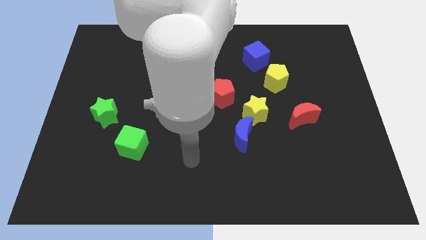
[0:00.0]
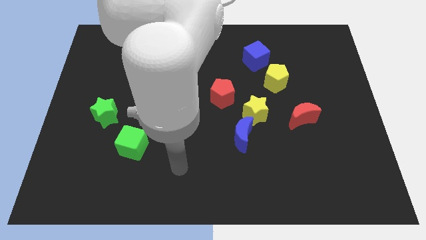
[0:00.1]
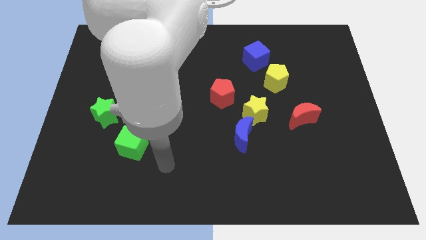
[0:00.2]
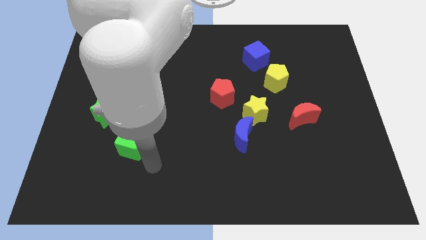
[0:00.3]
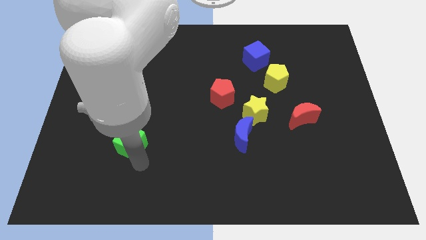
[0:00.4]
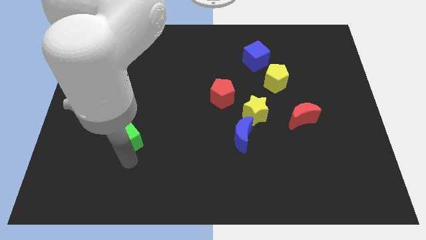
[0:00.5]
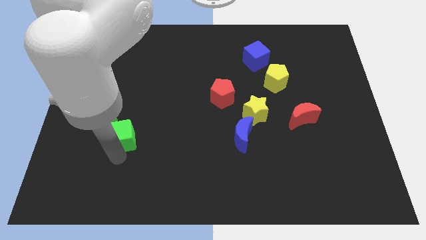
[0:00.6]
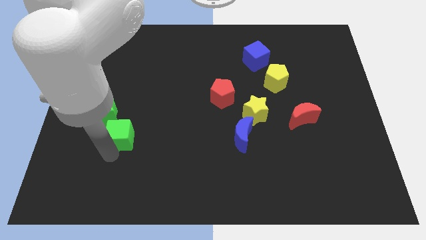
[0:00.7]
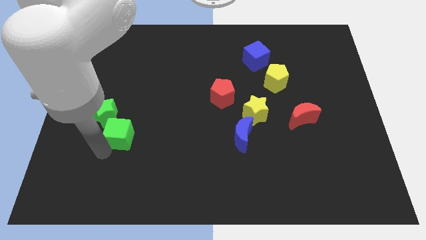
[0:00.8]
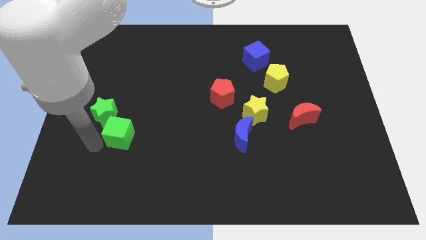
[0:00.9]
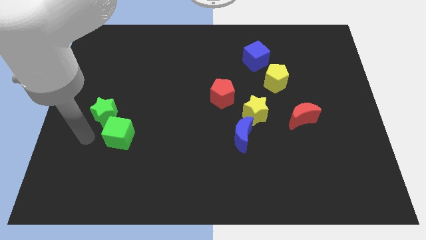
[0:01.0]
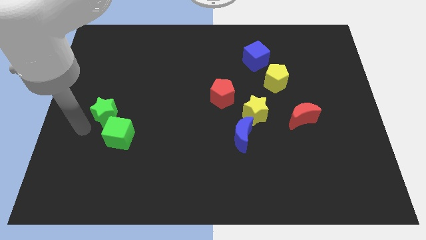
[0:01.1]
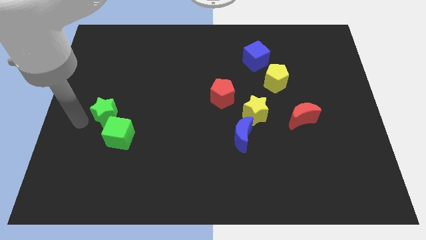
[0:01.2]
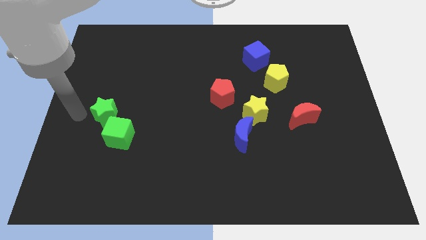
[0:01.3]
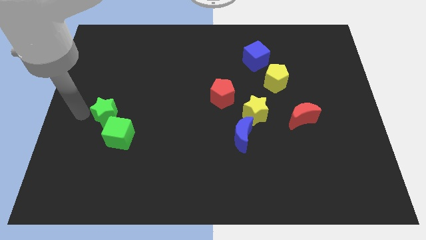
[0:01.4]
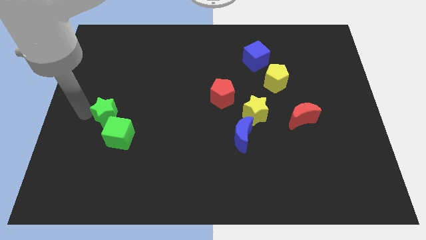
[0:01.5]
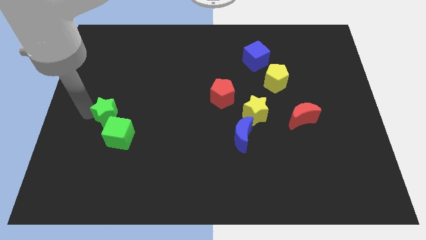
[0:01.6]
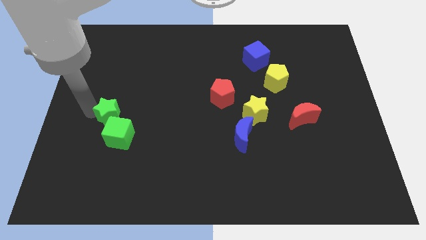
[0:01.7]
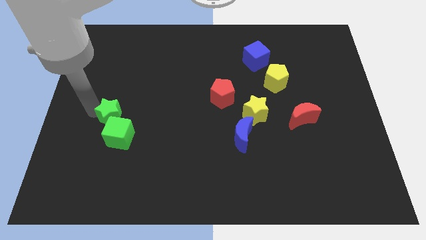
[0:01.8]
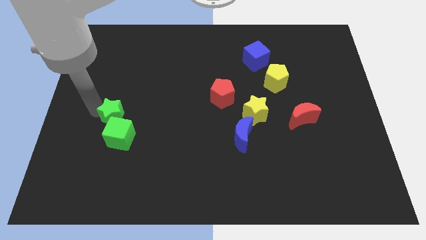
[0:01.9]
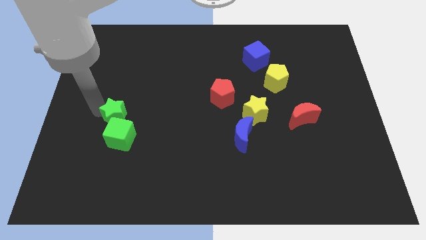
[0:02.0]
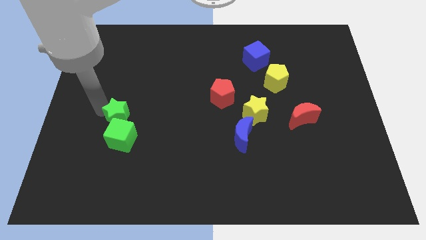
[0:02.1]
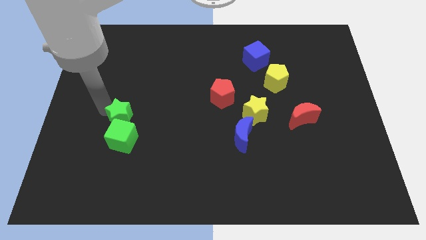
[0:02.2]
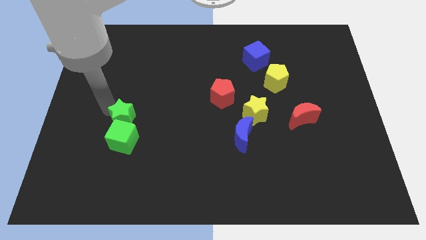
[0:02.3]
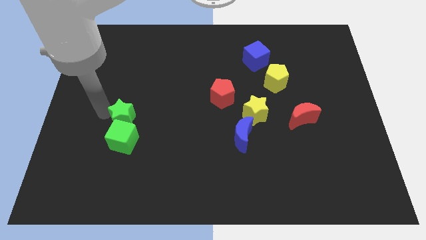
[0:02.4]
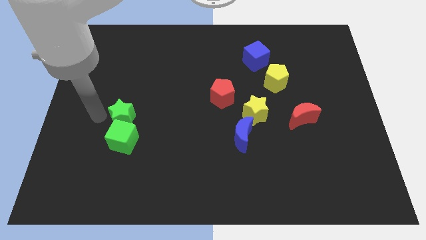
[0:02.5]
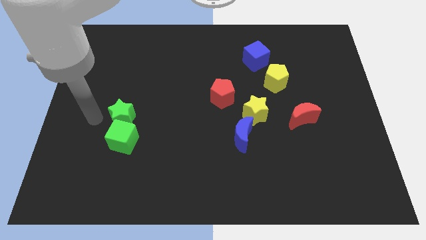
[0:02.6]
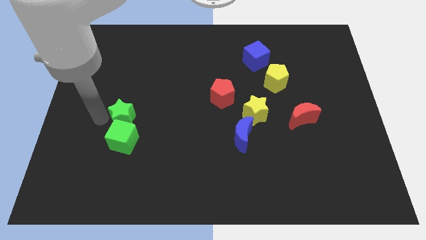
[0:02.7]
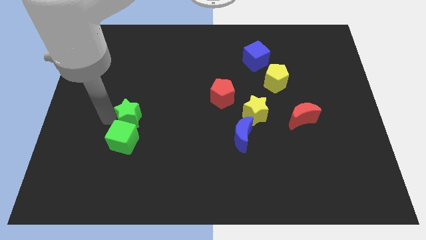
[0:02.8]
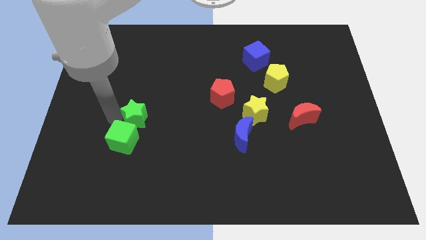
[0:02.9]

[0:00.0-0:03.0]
slightly move the green star to the right

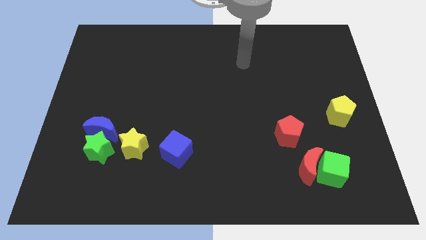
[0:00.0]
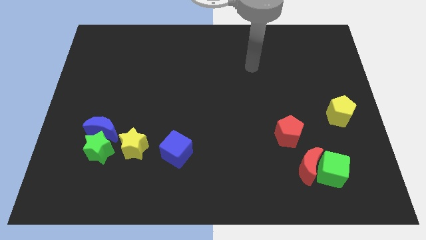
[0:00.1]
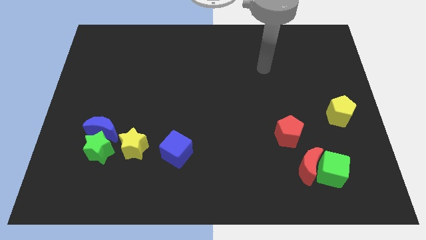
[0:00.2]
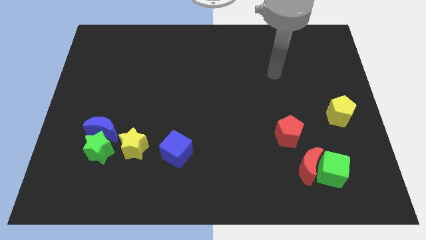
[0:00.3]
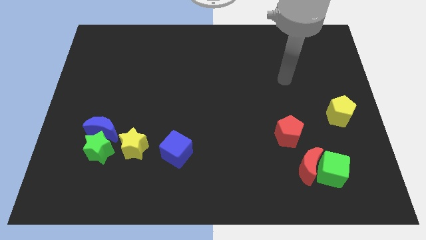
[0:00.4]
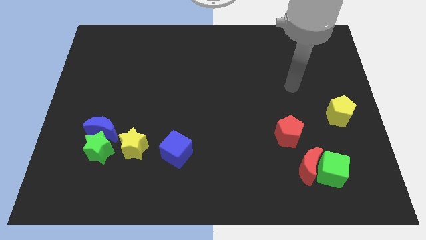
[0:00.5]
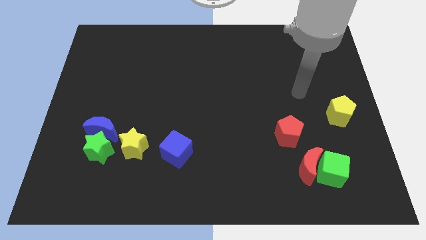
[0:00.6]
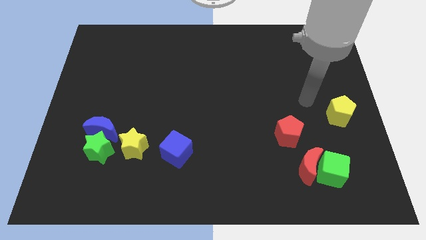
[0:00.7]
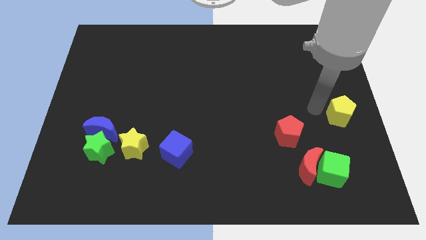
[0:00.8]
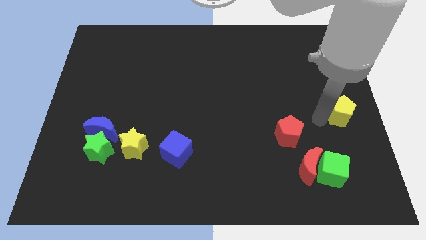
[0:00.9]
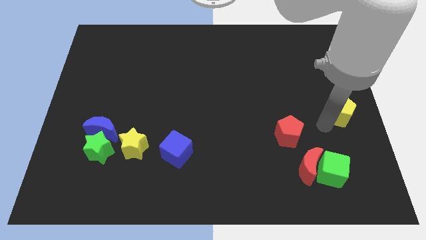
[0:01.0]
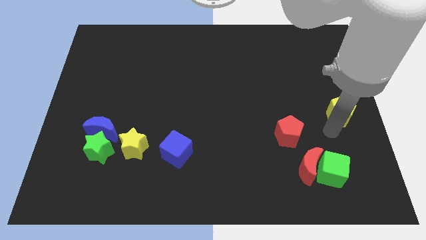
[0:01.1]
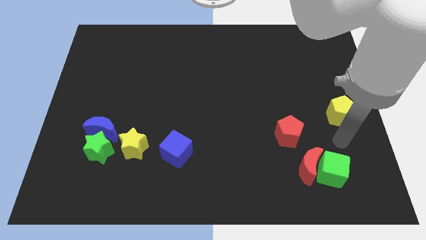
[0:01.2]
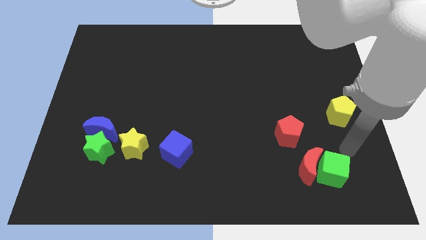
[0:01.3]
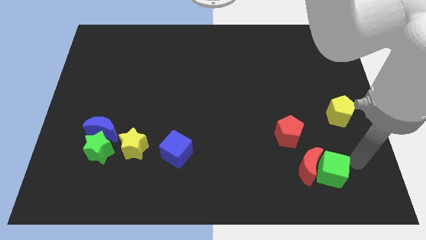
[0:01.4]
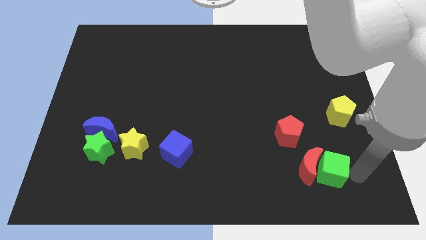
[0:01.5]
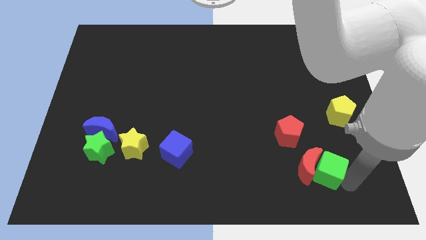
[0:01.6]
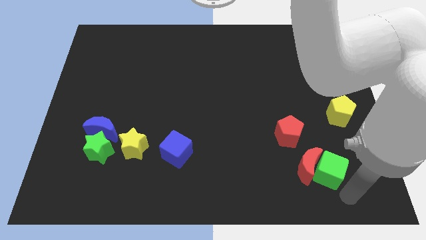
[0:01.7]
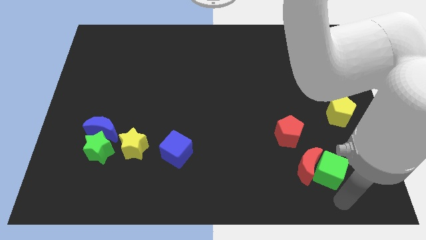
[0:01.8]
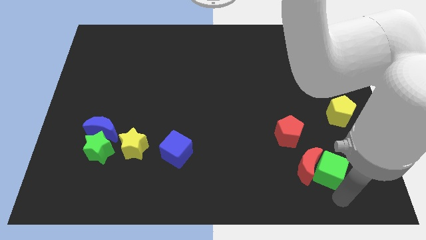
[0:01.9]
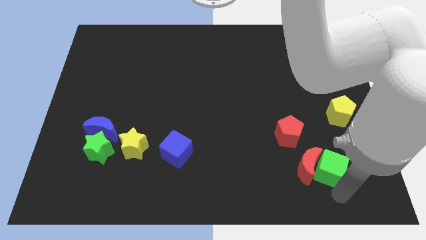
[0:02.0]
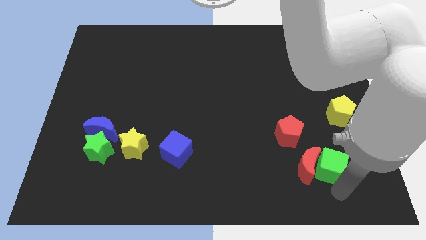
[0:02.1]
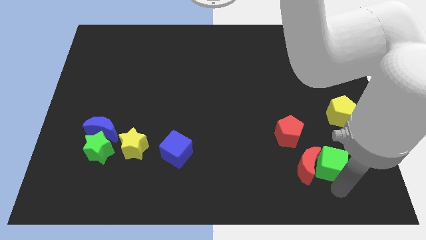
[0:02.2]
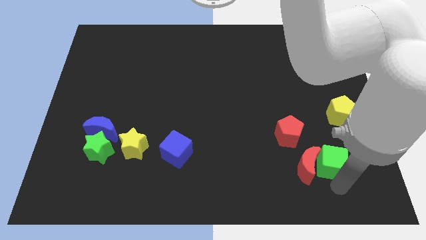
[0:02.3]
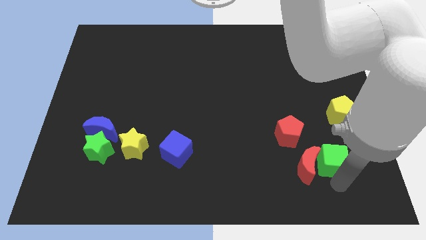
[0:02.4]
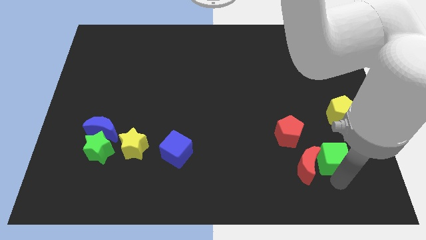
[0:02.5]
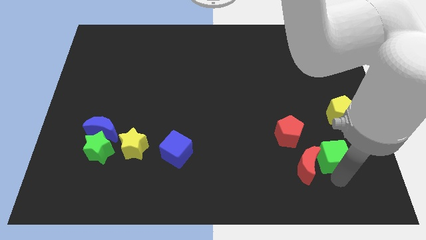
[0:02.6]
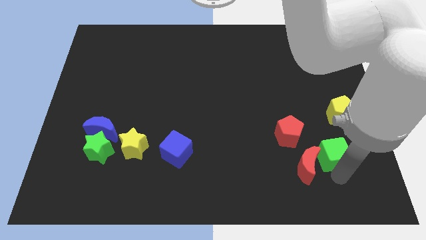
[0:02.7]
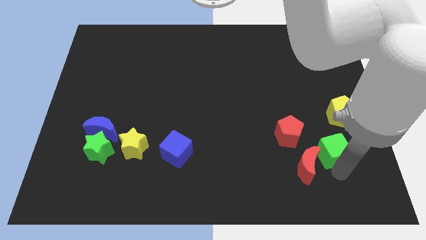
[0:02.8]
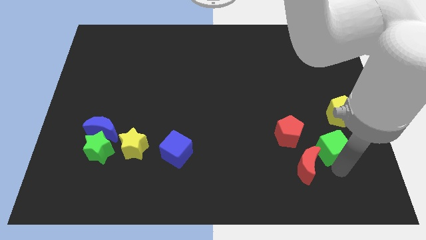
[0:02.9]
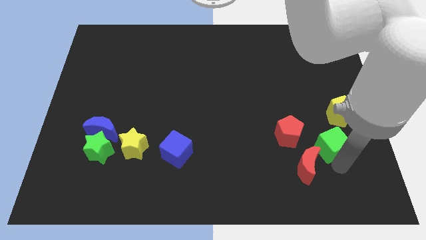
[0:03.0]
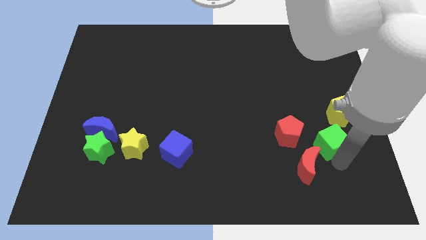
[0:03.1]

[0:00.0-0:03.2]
slightly push the green cube upwards

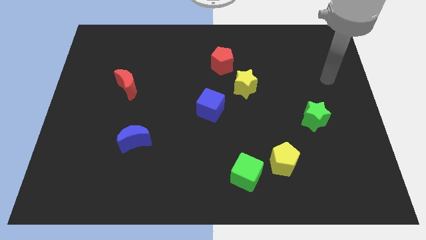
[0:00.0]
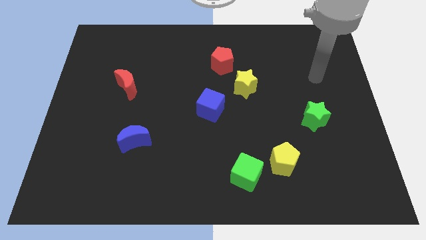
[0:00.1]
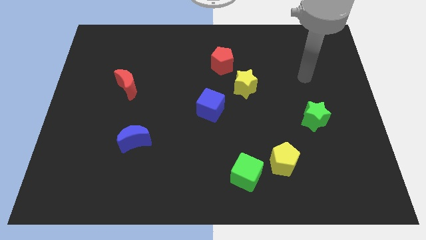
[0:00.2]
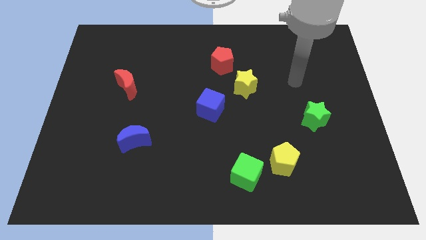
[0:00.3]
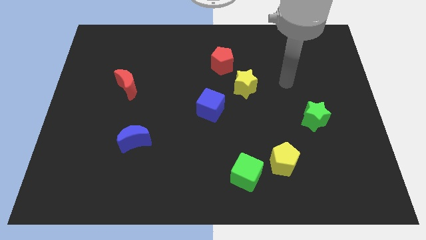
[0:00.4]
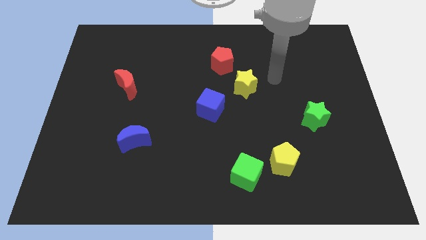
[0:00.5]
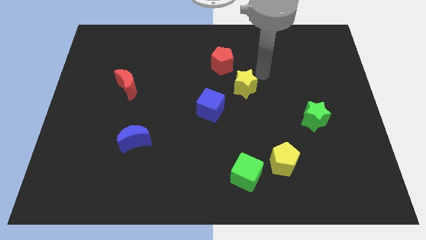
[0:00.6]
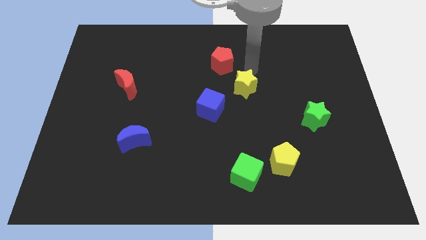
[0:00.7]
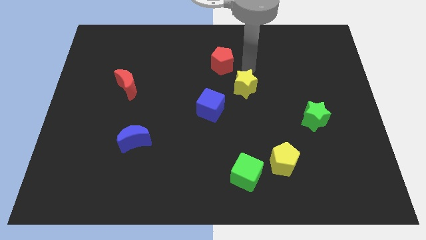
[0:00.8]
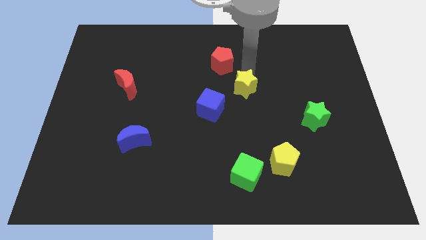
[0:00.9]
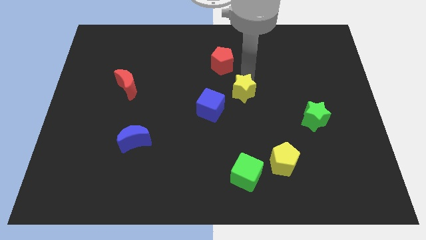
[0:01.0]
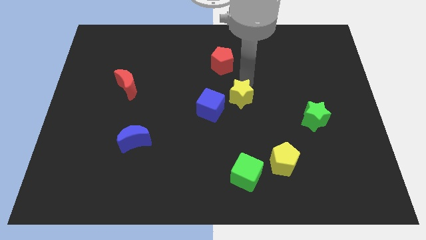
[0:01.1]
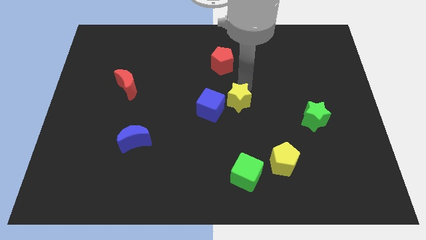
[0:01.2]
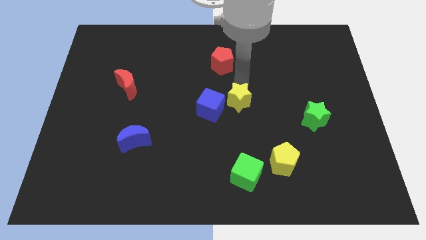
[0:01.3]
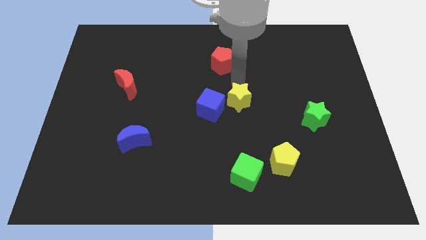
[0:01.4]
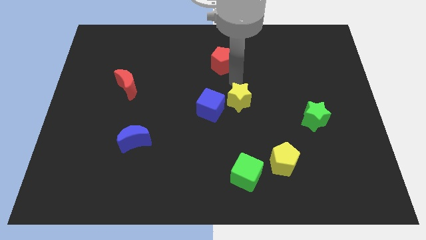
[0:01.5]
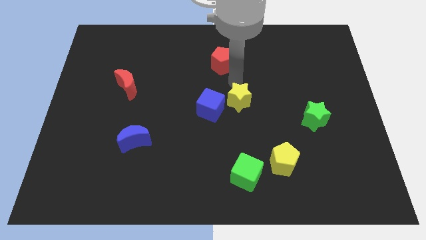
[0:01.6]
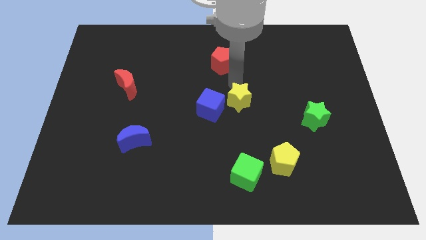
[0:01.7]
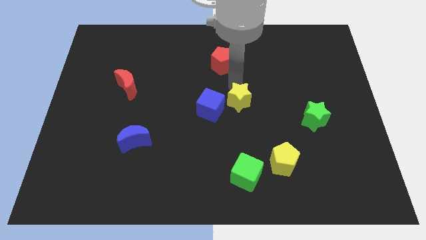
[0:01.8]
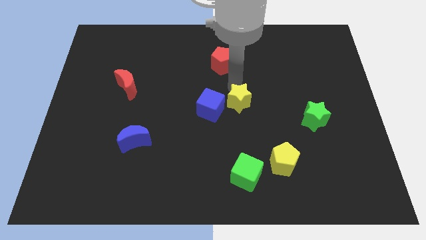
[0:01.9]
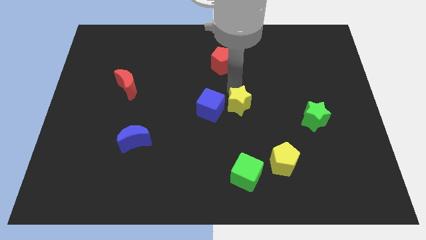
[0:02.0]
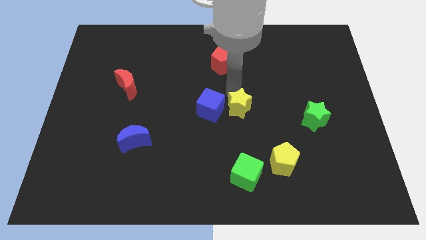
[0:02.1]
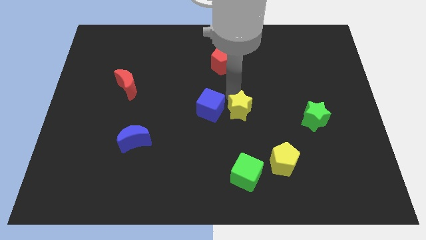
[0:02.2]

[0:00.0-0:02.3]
push the yellow star a little bit down
